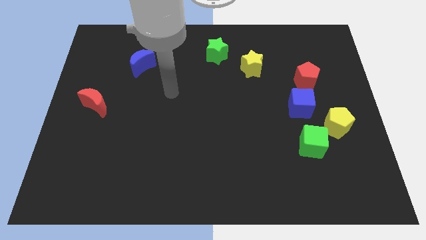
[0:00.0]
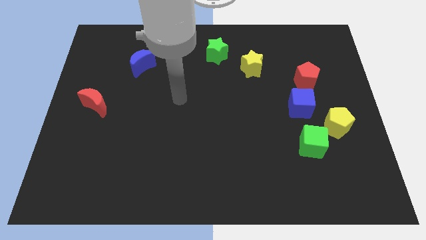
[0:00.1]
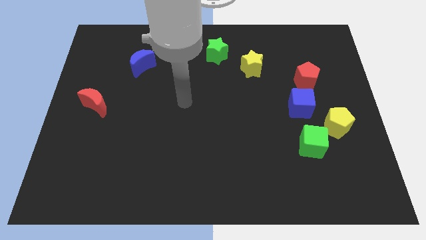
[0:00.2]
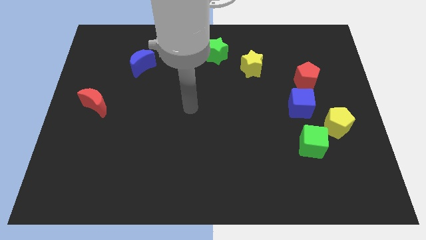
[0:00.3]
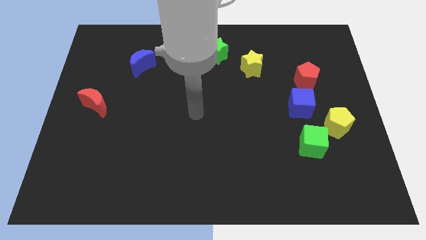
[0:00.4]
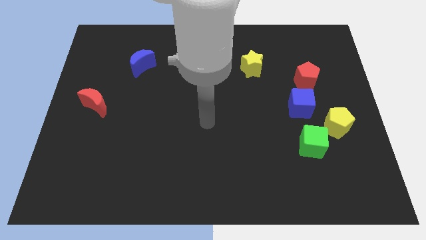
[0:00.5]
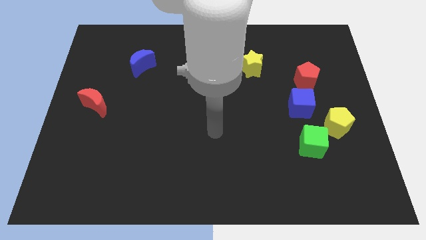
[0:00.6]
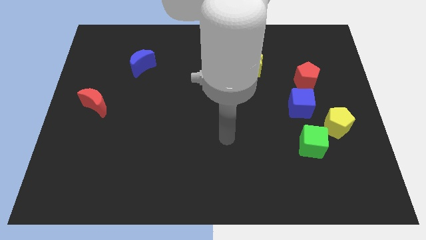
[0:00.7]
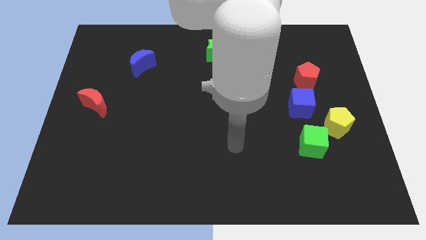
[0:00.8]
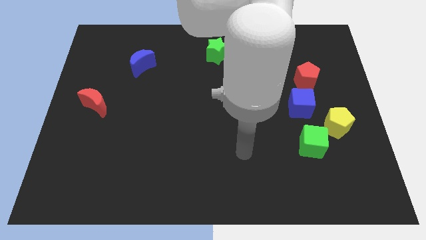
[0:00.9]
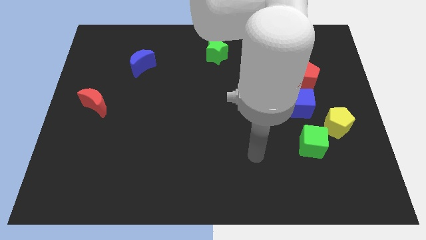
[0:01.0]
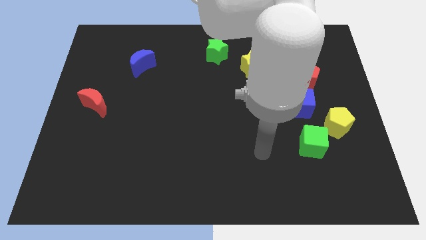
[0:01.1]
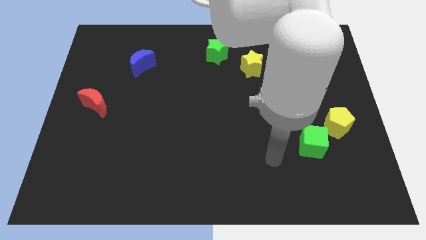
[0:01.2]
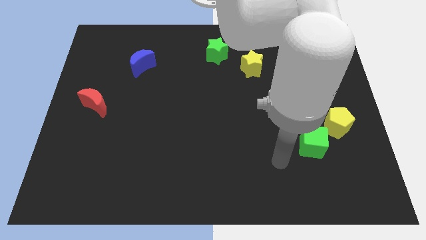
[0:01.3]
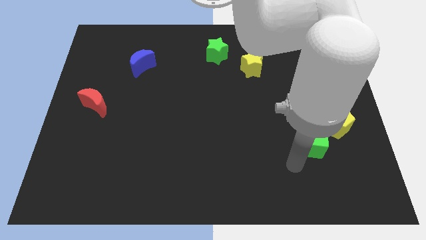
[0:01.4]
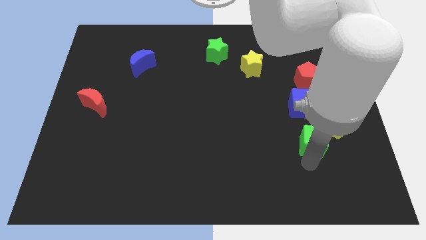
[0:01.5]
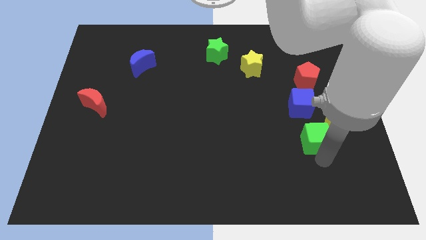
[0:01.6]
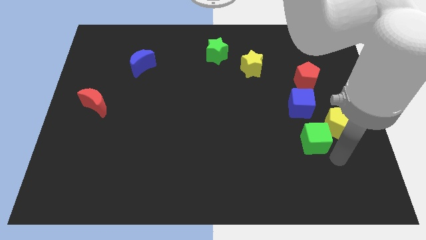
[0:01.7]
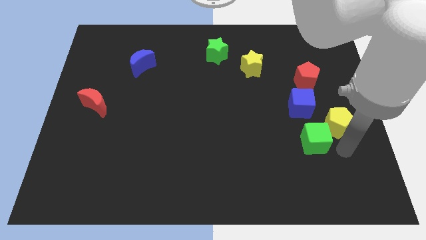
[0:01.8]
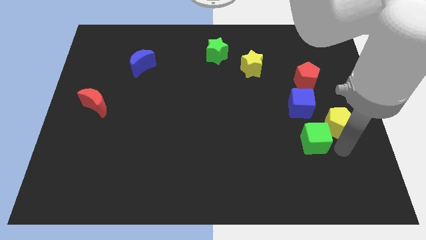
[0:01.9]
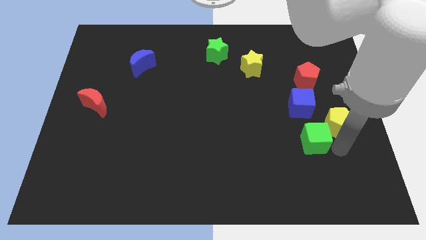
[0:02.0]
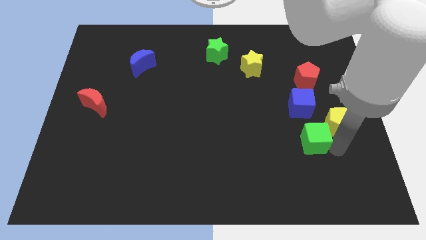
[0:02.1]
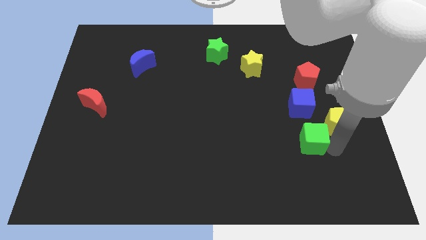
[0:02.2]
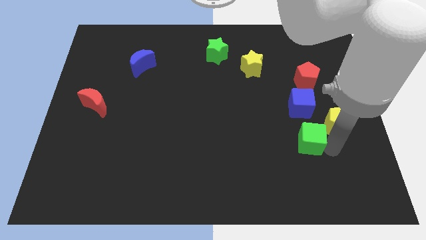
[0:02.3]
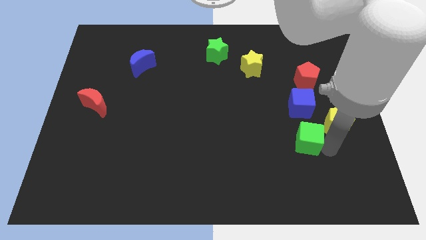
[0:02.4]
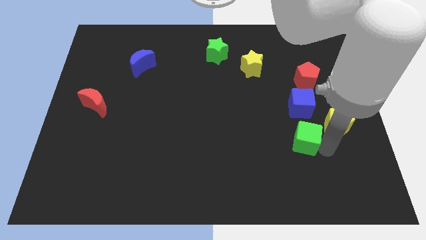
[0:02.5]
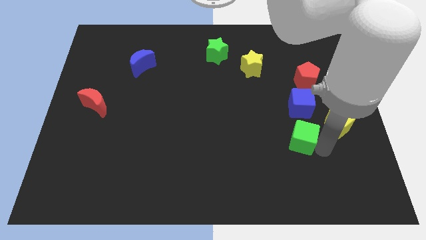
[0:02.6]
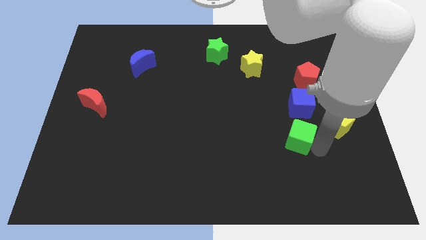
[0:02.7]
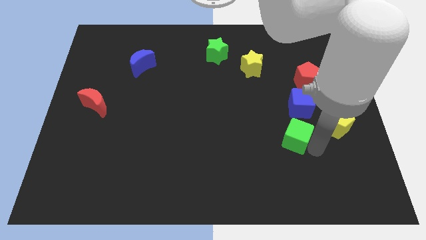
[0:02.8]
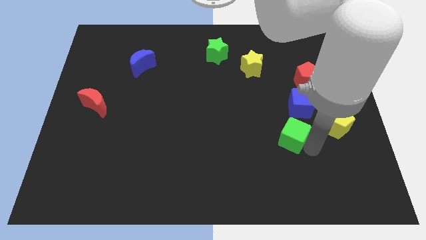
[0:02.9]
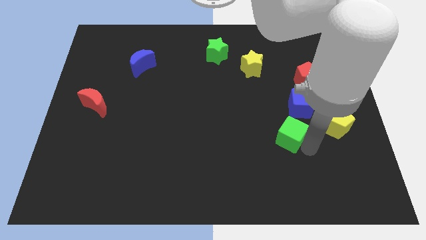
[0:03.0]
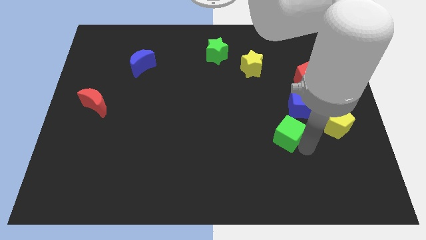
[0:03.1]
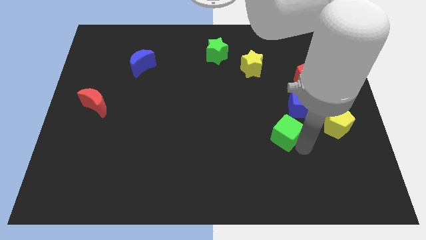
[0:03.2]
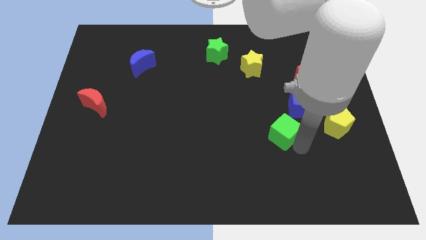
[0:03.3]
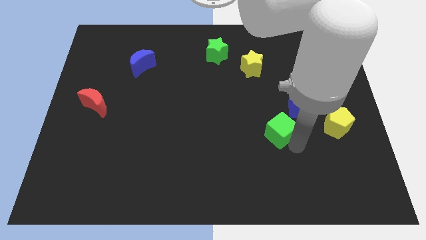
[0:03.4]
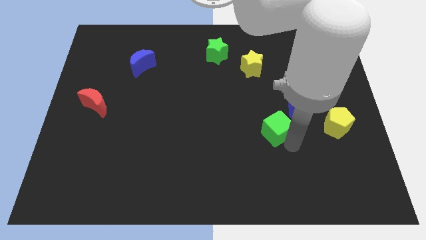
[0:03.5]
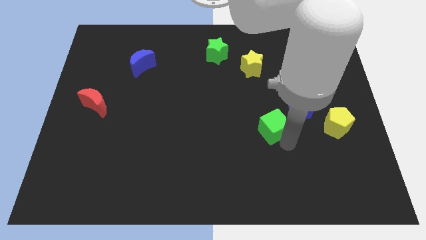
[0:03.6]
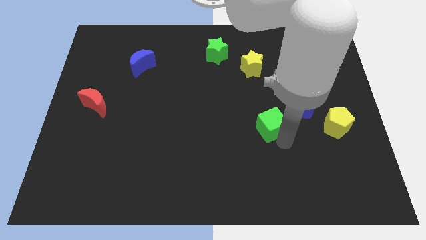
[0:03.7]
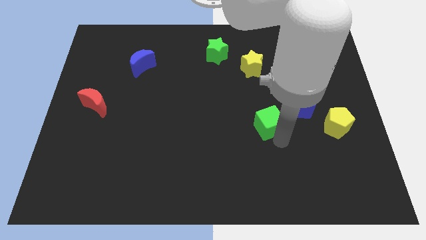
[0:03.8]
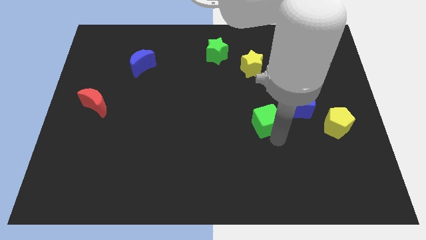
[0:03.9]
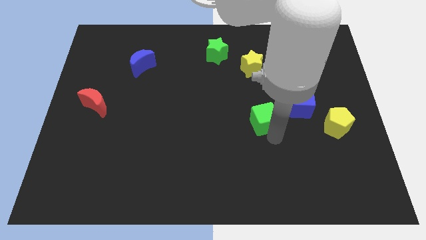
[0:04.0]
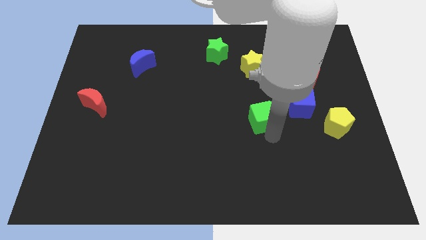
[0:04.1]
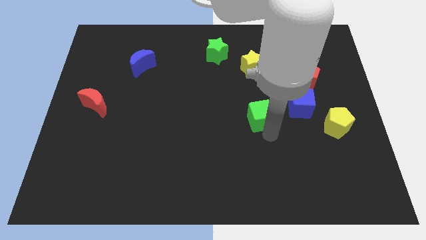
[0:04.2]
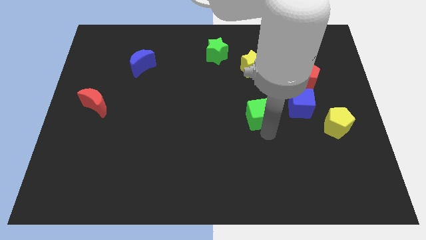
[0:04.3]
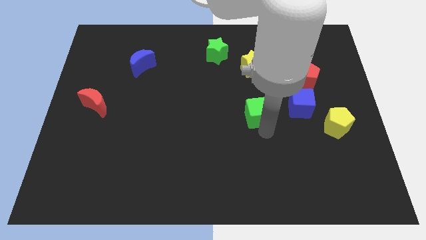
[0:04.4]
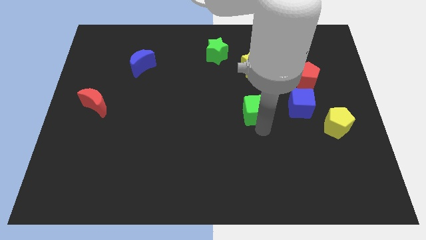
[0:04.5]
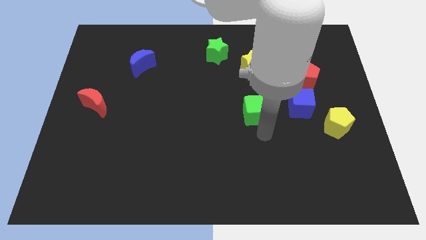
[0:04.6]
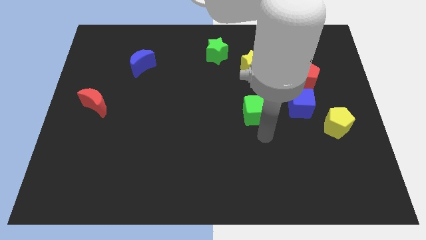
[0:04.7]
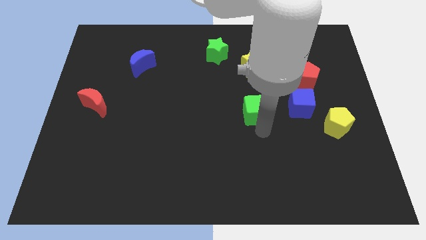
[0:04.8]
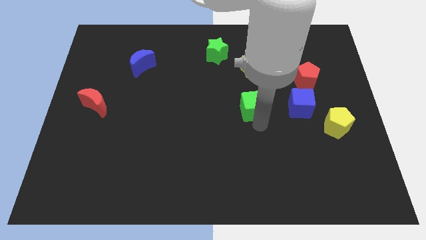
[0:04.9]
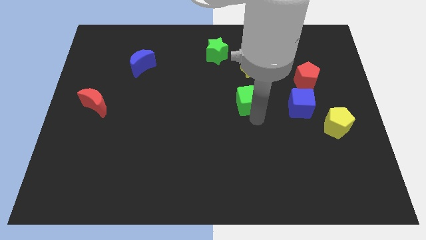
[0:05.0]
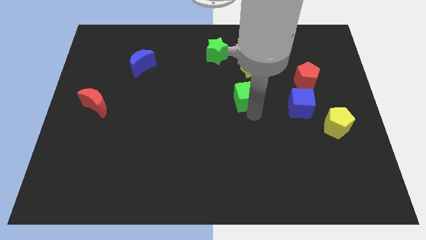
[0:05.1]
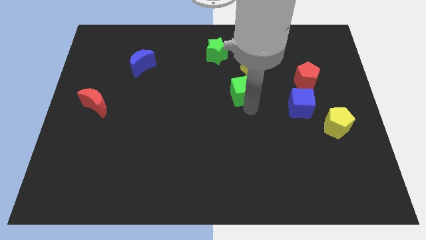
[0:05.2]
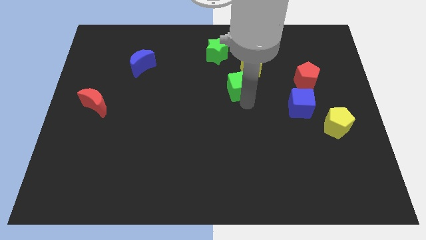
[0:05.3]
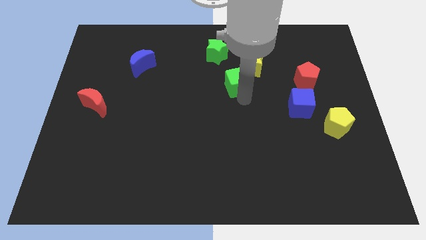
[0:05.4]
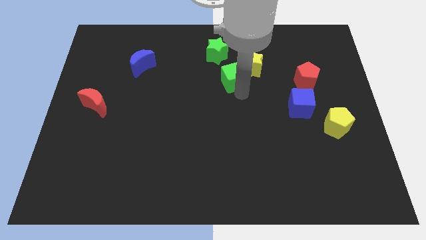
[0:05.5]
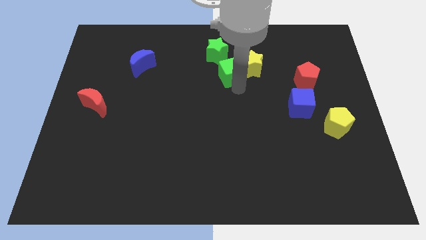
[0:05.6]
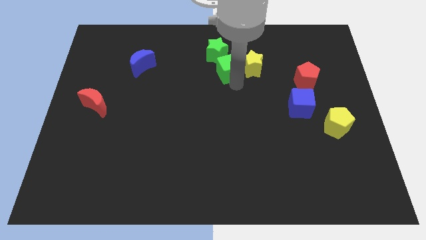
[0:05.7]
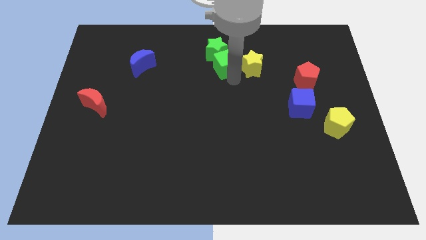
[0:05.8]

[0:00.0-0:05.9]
put the green cube to the green star

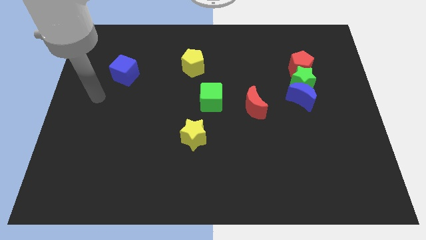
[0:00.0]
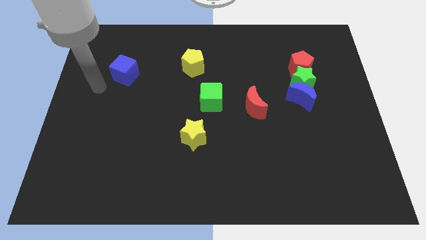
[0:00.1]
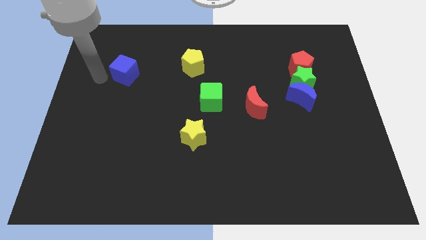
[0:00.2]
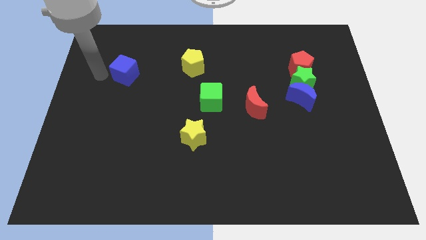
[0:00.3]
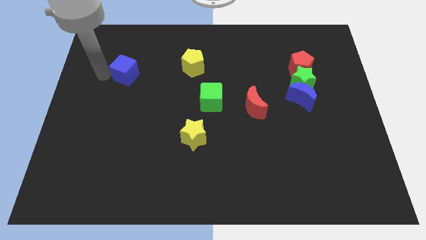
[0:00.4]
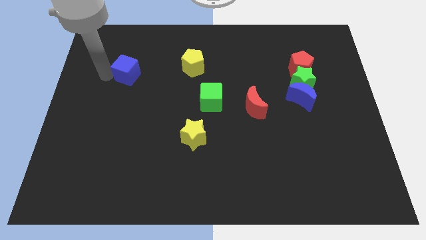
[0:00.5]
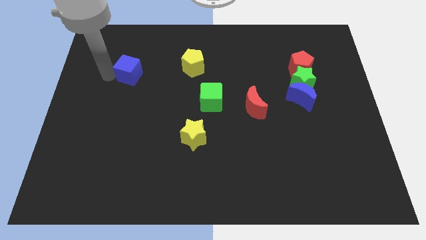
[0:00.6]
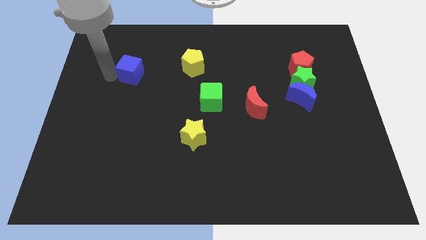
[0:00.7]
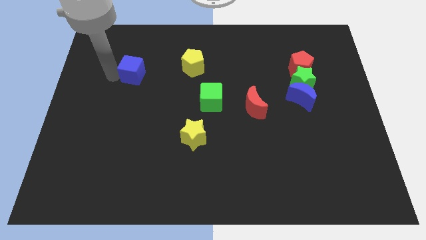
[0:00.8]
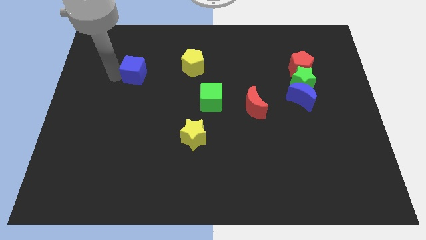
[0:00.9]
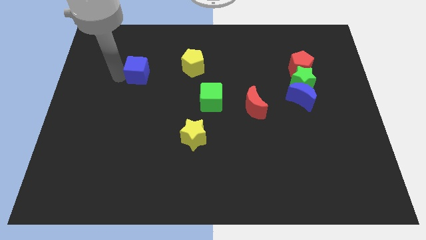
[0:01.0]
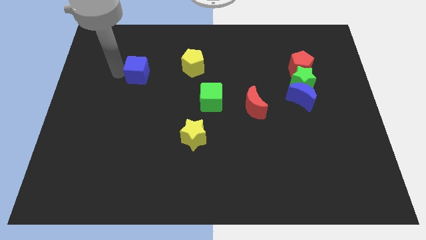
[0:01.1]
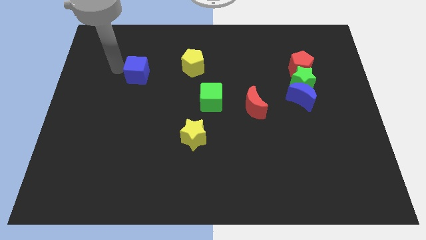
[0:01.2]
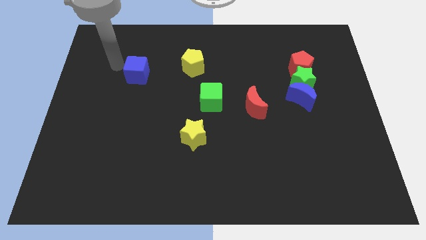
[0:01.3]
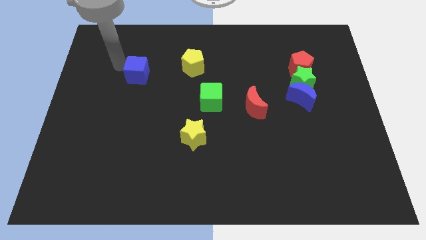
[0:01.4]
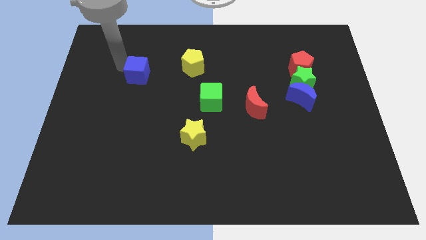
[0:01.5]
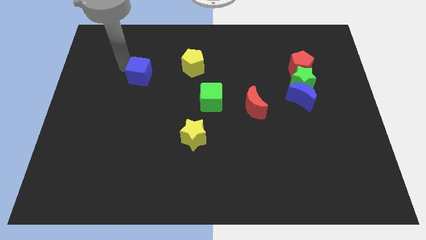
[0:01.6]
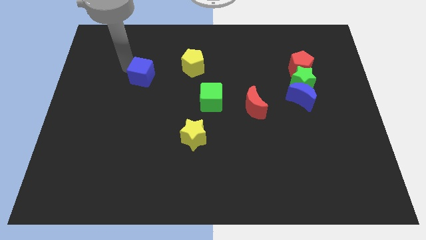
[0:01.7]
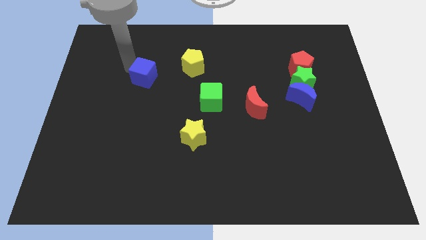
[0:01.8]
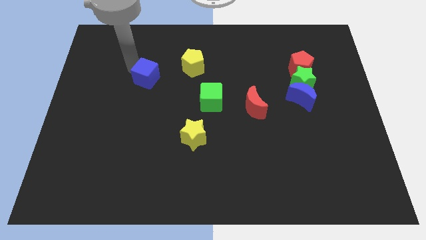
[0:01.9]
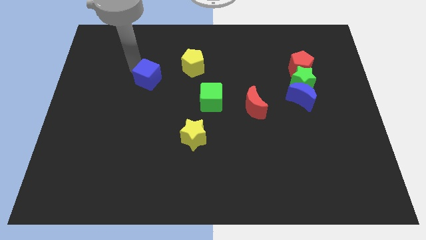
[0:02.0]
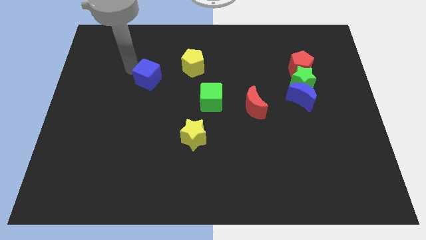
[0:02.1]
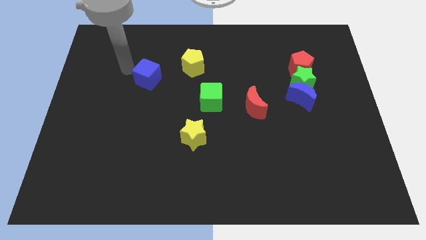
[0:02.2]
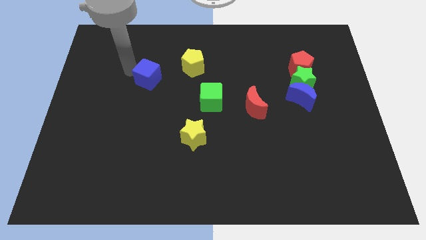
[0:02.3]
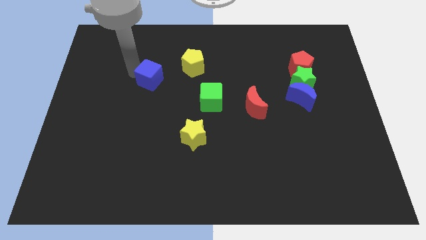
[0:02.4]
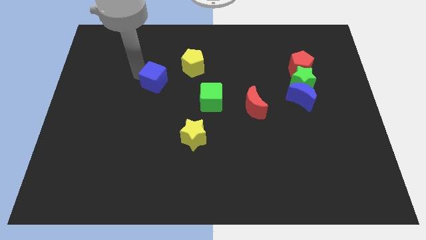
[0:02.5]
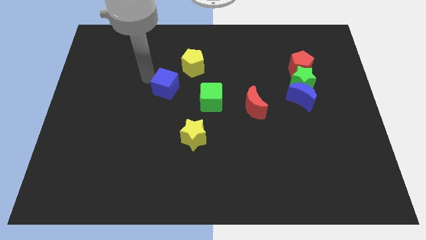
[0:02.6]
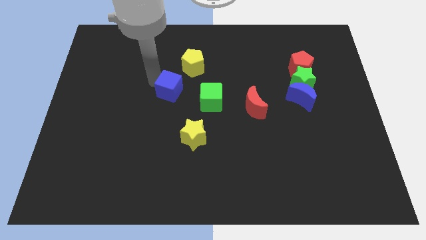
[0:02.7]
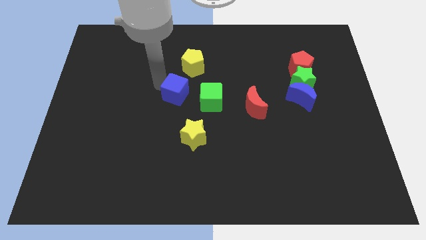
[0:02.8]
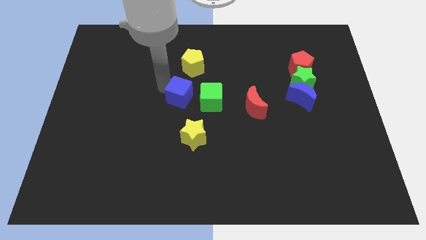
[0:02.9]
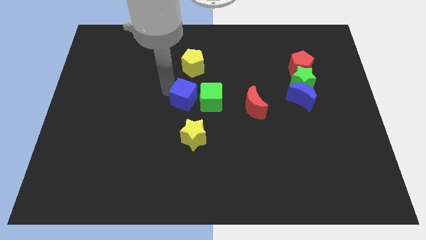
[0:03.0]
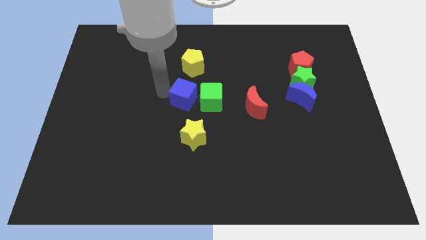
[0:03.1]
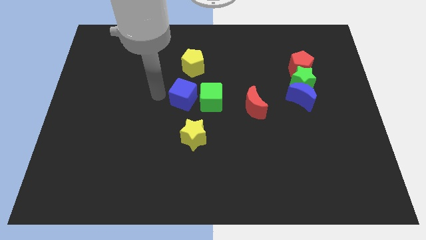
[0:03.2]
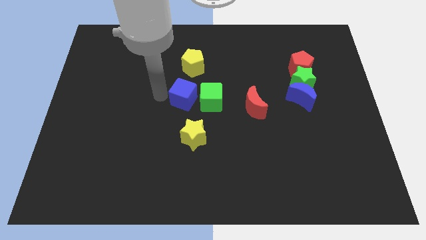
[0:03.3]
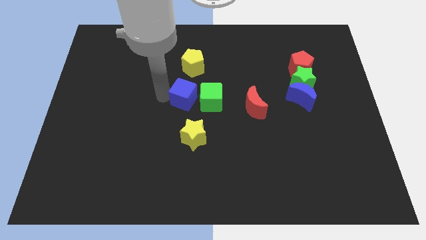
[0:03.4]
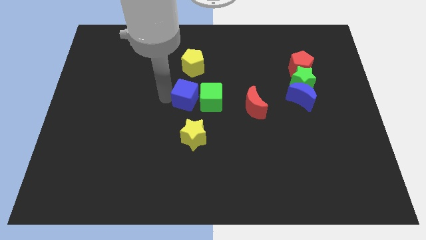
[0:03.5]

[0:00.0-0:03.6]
move the blue cube next to the green cube
